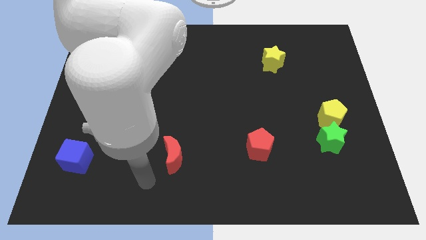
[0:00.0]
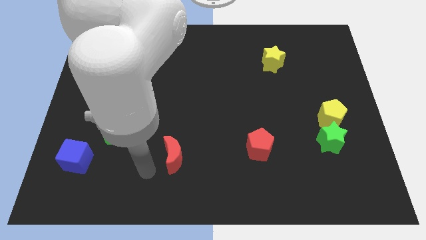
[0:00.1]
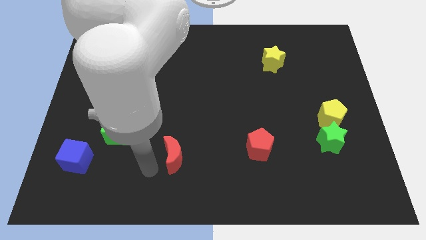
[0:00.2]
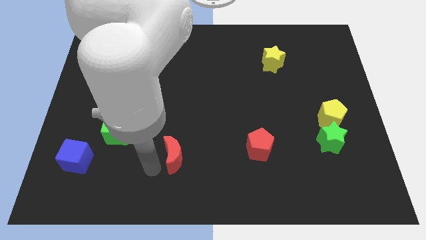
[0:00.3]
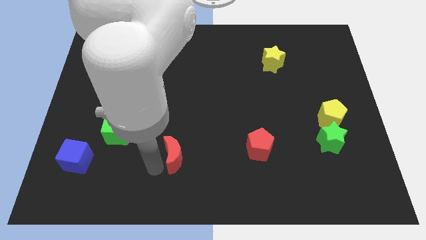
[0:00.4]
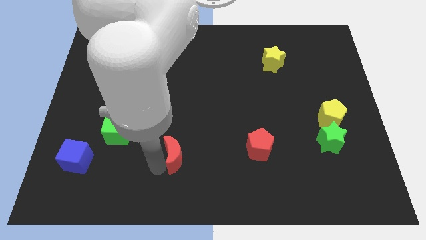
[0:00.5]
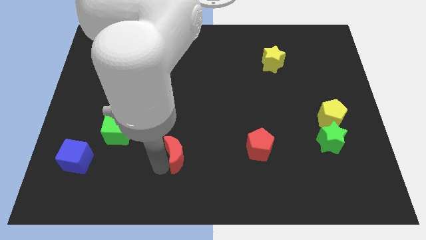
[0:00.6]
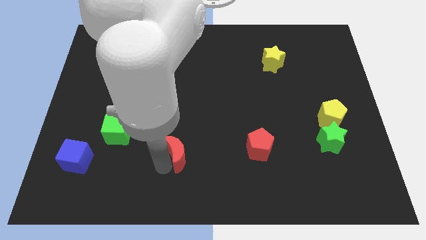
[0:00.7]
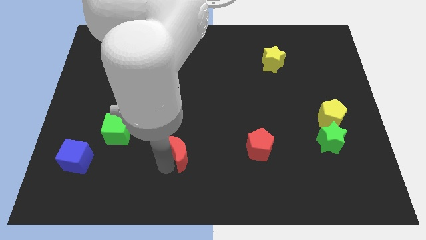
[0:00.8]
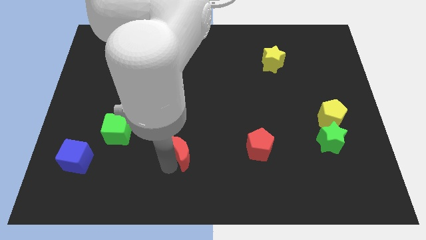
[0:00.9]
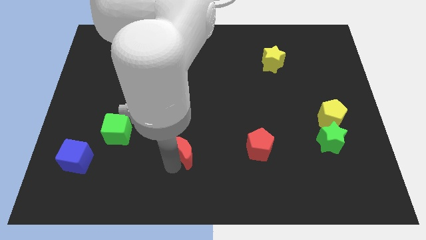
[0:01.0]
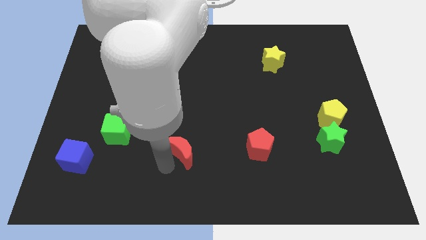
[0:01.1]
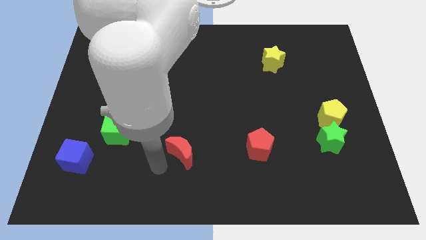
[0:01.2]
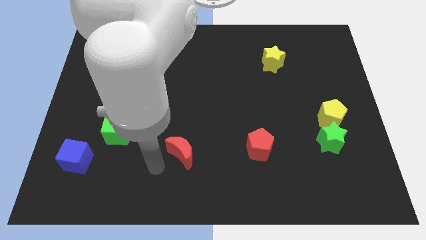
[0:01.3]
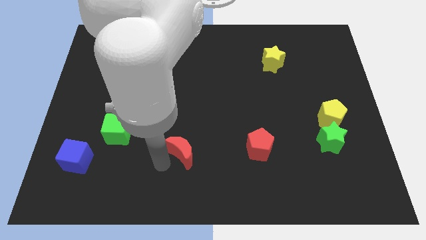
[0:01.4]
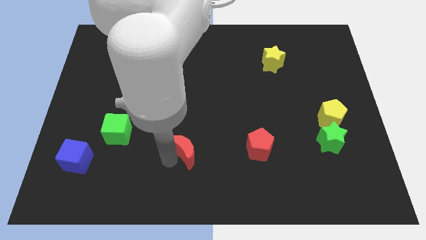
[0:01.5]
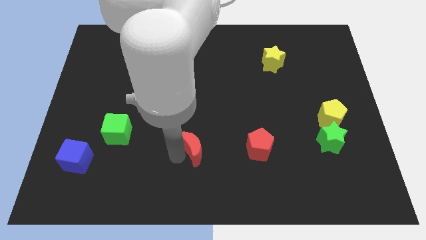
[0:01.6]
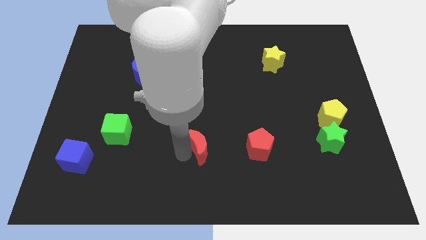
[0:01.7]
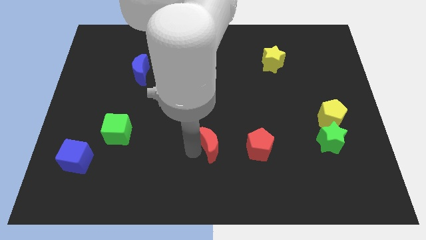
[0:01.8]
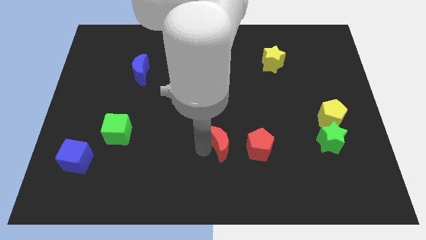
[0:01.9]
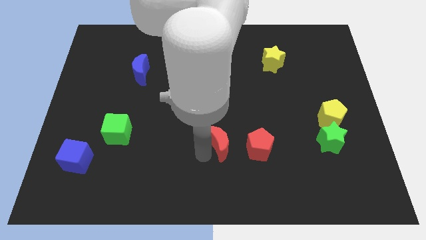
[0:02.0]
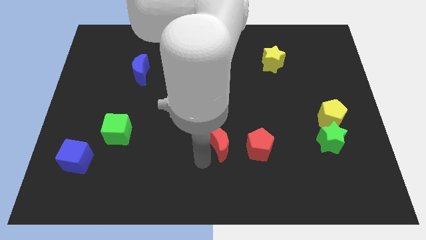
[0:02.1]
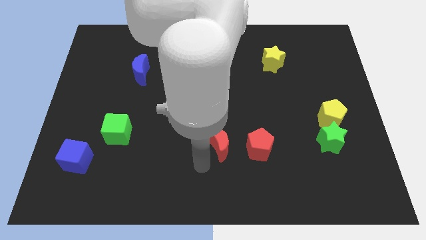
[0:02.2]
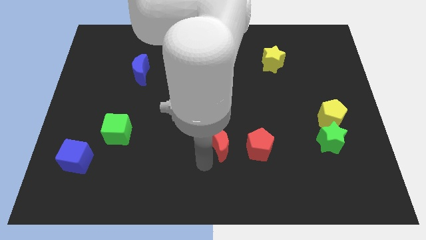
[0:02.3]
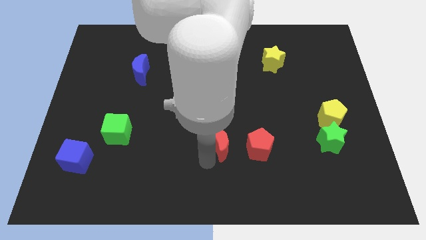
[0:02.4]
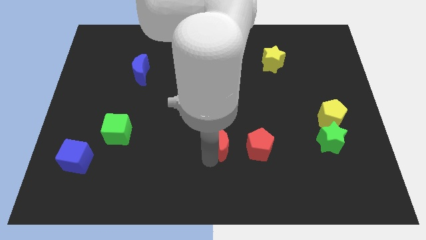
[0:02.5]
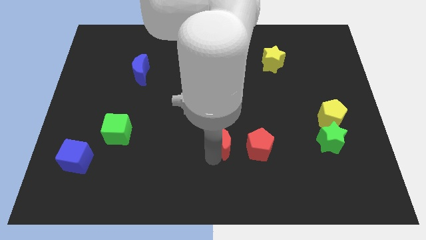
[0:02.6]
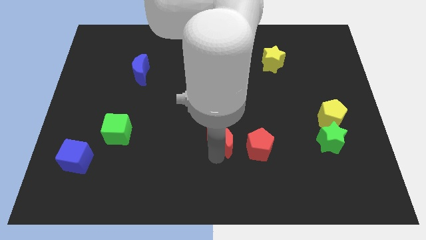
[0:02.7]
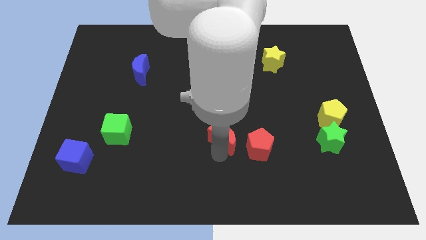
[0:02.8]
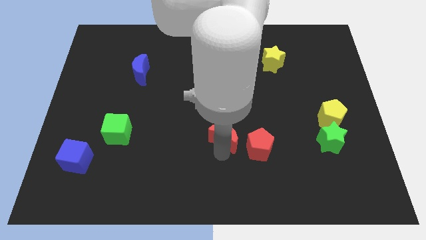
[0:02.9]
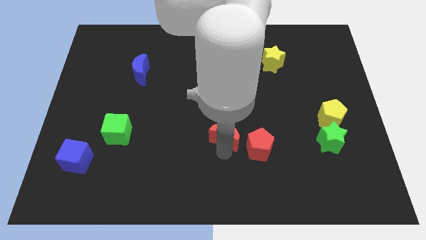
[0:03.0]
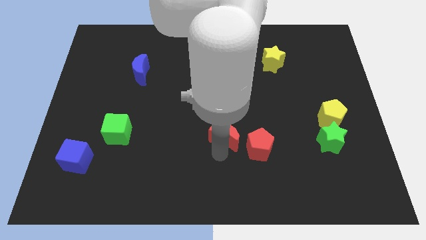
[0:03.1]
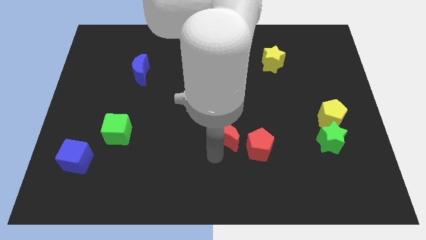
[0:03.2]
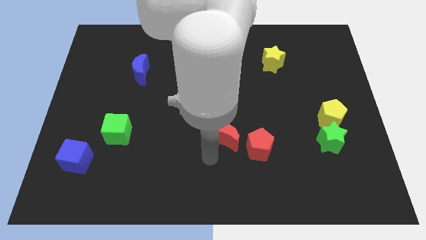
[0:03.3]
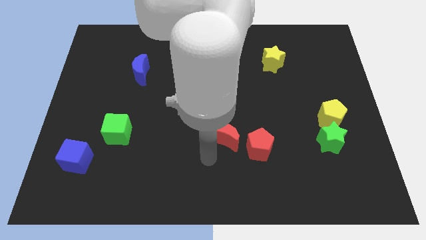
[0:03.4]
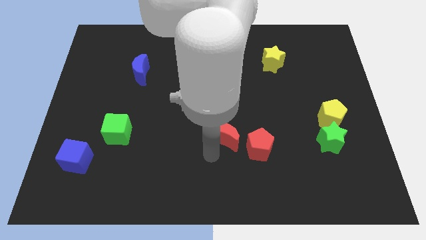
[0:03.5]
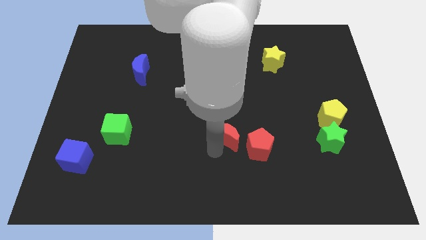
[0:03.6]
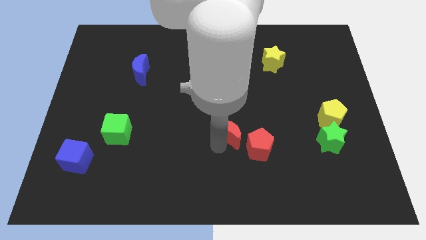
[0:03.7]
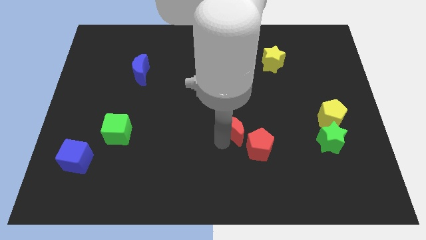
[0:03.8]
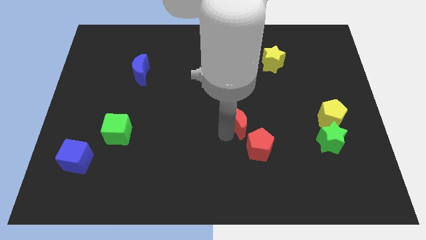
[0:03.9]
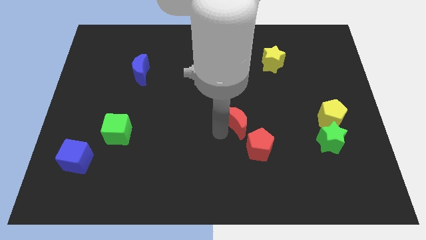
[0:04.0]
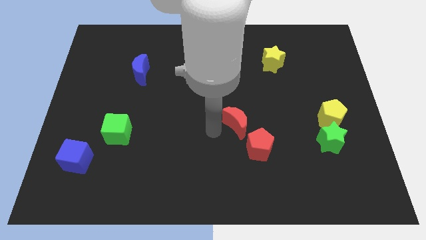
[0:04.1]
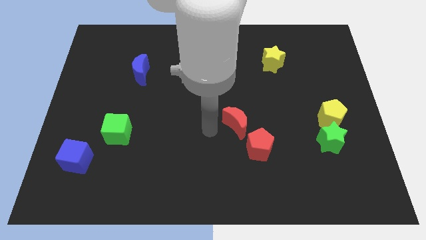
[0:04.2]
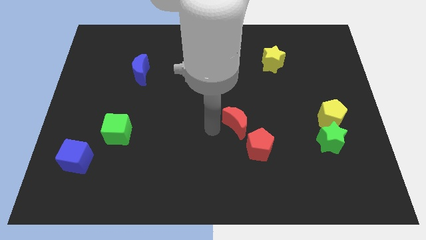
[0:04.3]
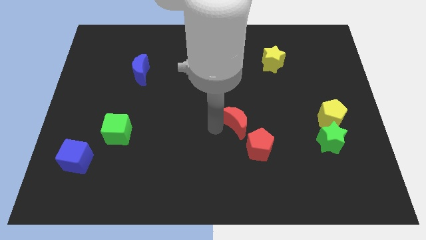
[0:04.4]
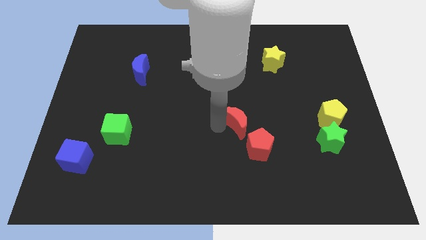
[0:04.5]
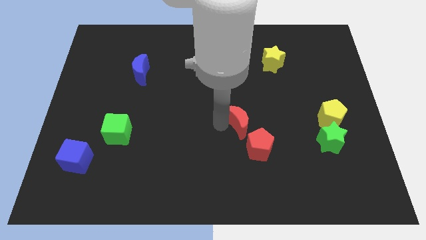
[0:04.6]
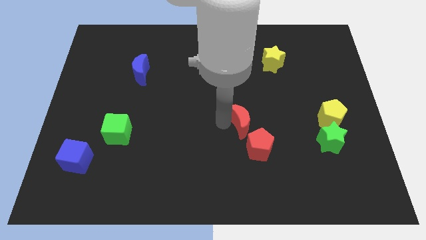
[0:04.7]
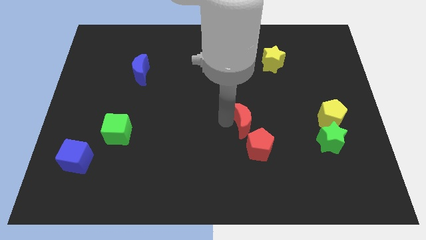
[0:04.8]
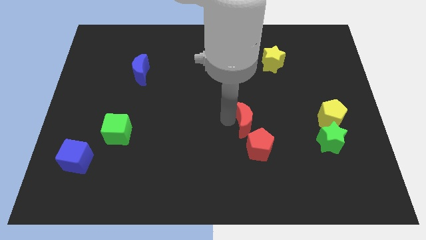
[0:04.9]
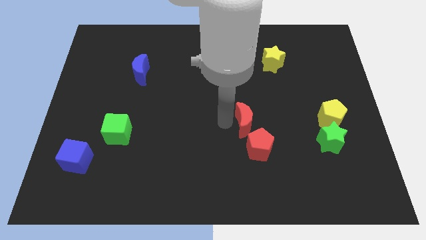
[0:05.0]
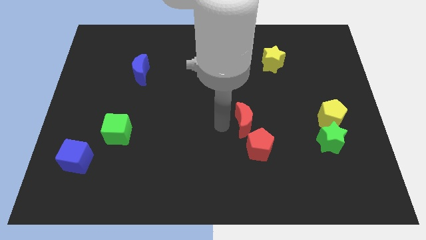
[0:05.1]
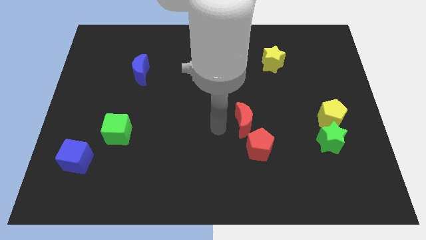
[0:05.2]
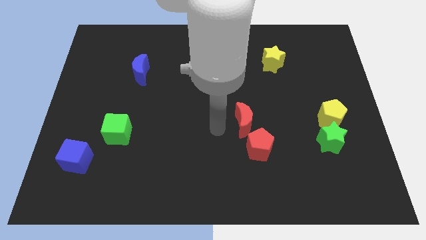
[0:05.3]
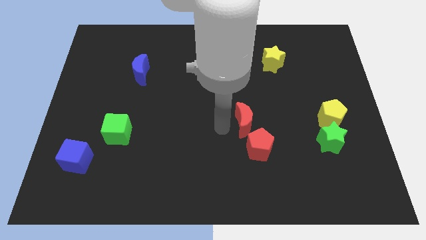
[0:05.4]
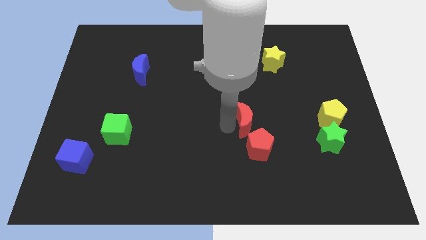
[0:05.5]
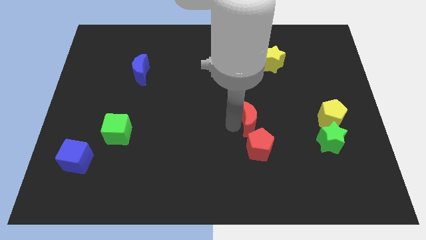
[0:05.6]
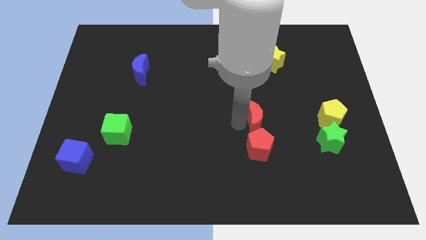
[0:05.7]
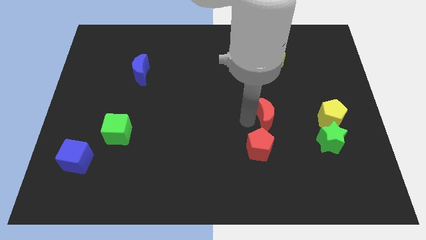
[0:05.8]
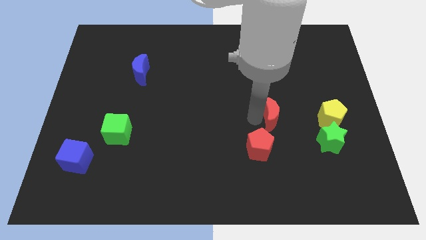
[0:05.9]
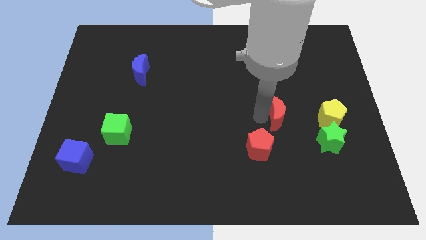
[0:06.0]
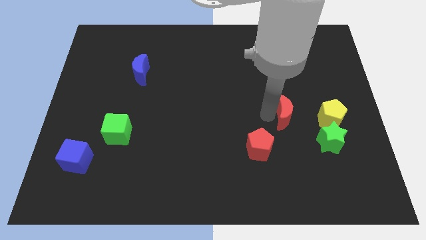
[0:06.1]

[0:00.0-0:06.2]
move the red moon to the top left side of the green star

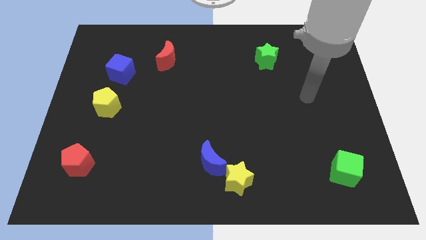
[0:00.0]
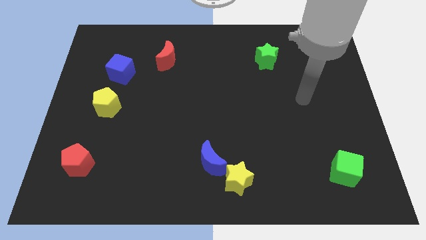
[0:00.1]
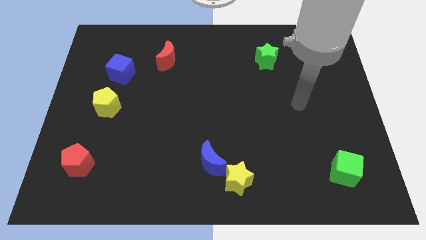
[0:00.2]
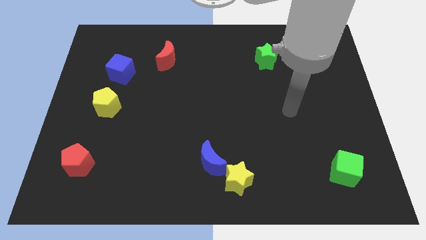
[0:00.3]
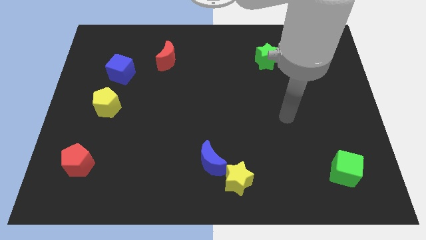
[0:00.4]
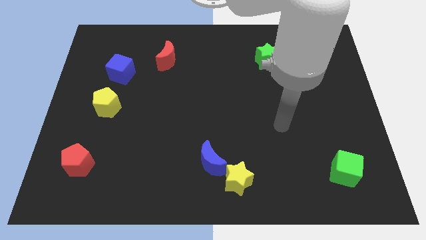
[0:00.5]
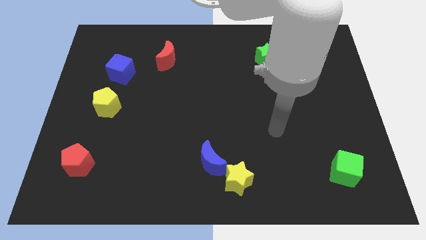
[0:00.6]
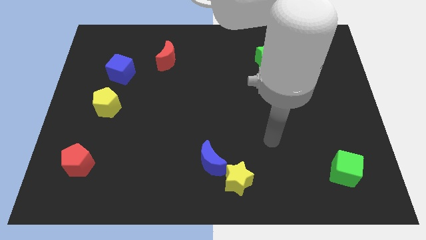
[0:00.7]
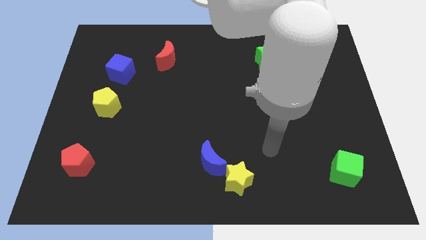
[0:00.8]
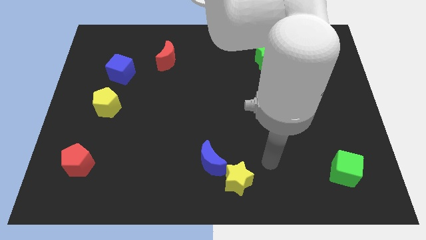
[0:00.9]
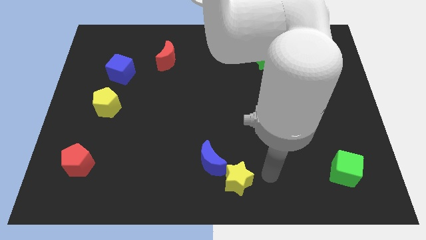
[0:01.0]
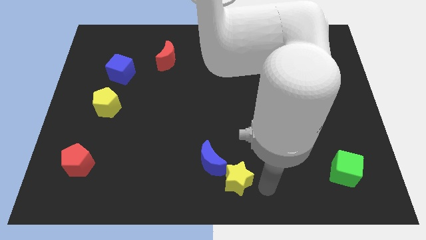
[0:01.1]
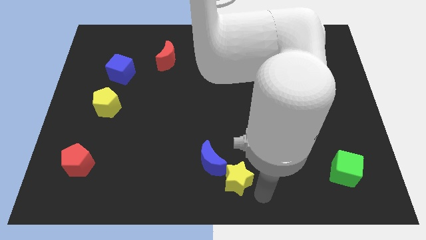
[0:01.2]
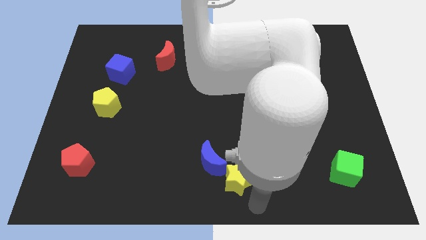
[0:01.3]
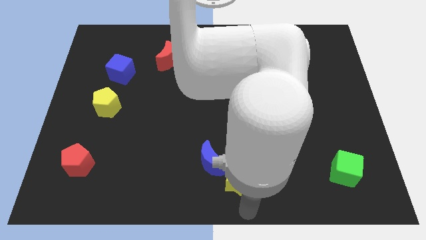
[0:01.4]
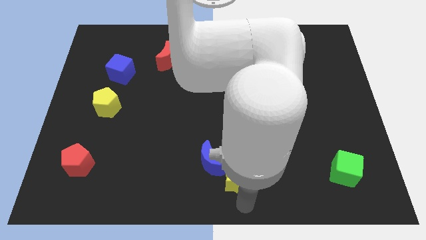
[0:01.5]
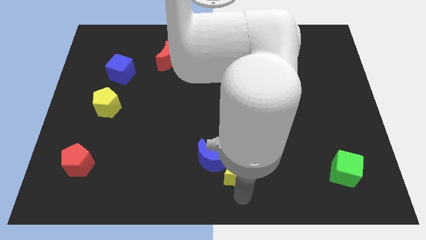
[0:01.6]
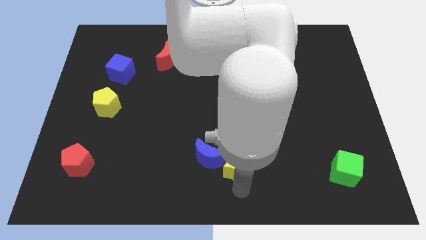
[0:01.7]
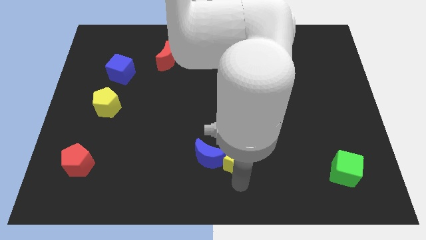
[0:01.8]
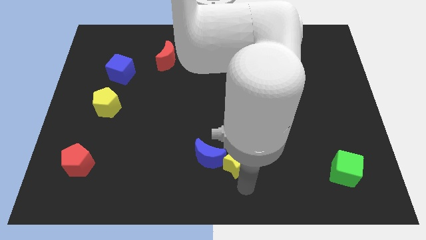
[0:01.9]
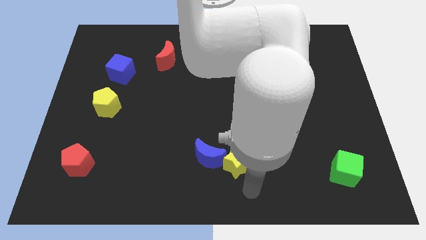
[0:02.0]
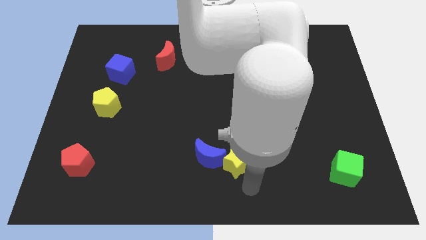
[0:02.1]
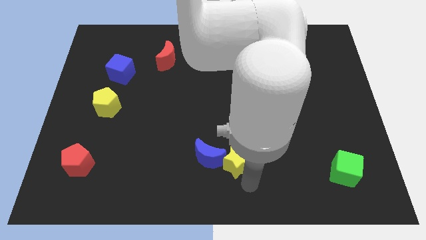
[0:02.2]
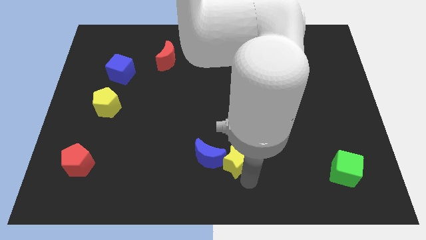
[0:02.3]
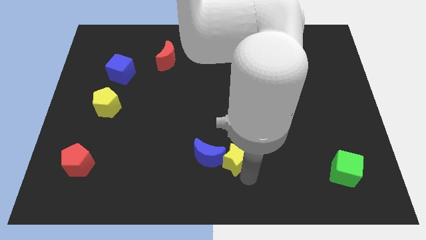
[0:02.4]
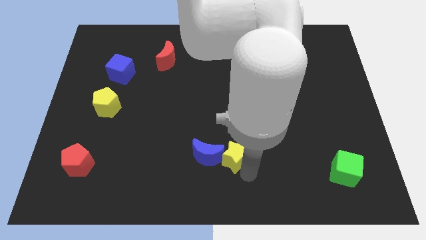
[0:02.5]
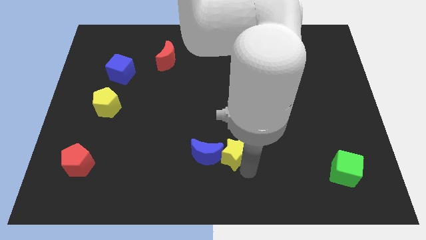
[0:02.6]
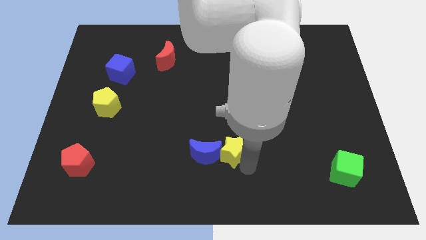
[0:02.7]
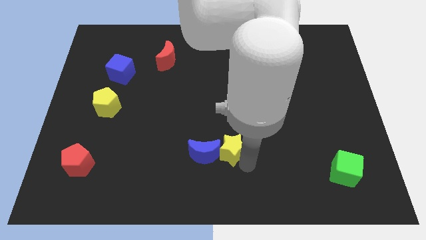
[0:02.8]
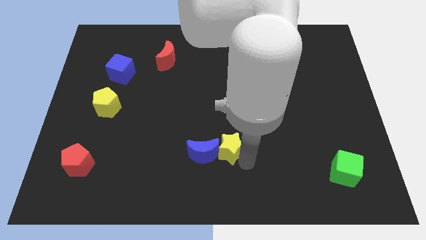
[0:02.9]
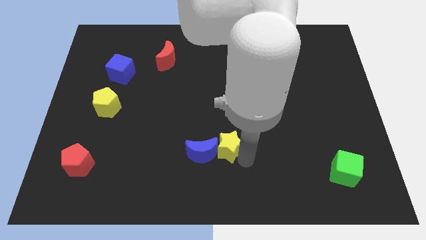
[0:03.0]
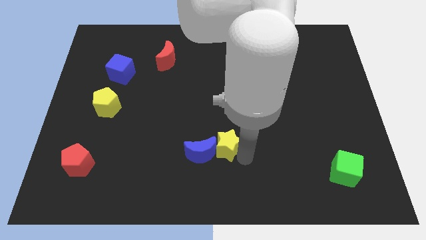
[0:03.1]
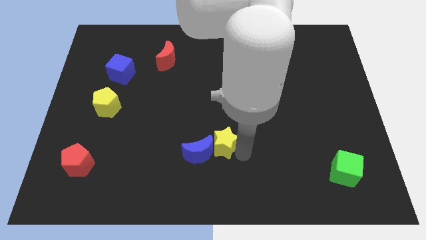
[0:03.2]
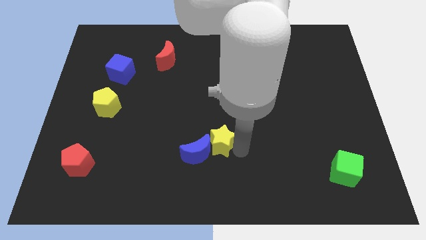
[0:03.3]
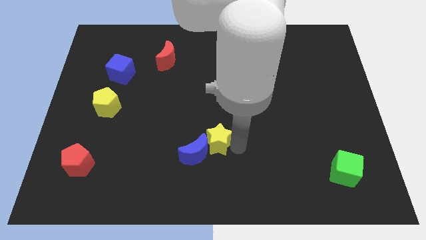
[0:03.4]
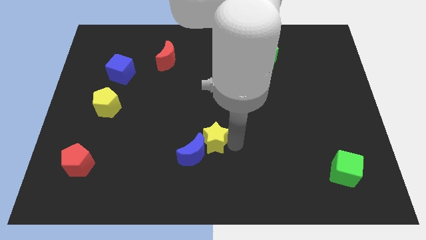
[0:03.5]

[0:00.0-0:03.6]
move the yellow star to the top side of the blue moon
